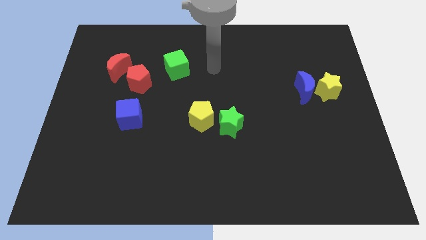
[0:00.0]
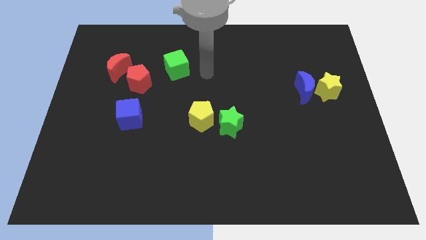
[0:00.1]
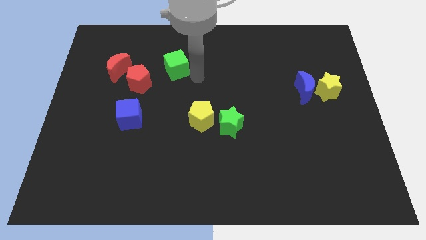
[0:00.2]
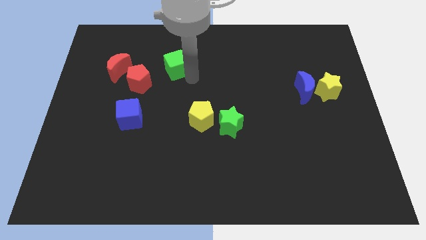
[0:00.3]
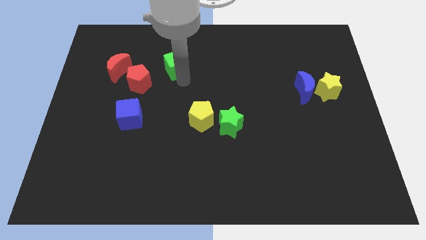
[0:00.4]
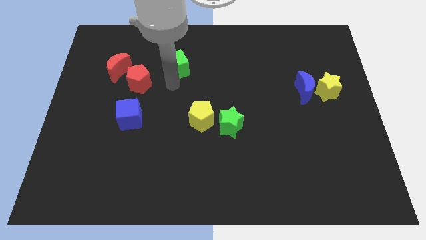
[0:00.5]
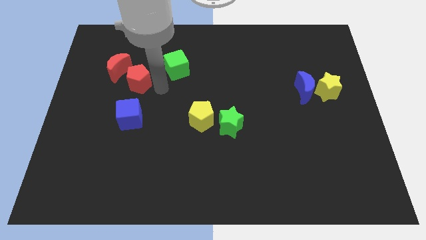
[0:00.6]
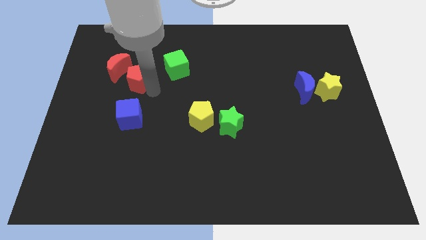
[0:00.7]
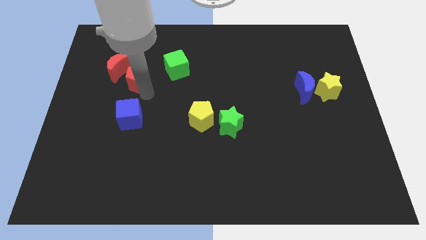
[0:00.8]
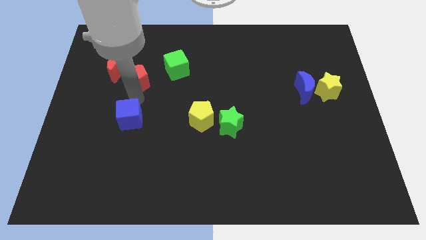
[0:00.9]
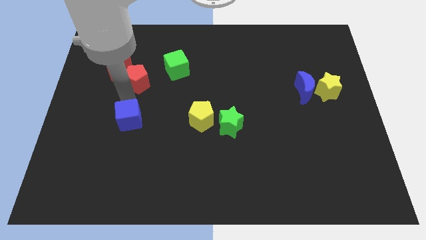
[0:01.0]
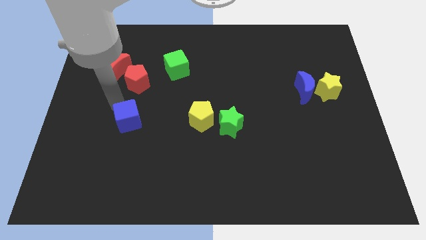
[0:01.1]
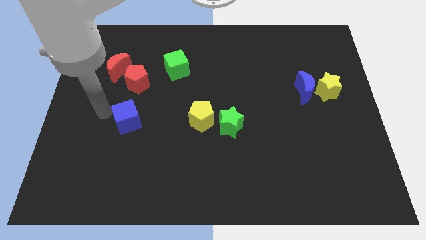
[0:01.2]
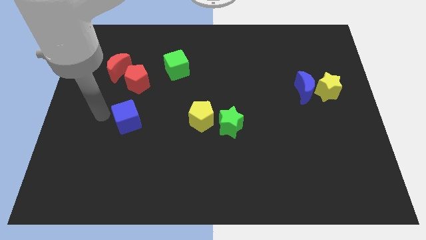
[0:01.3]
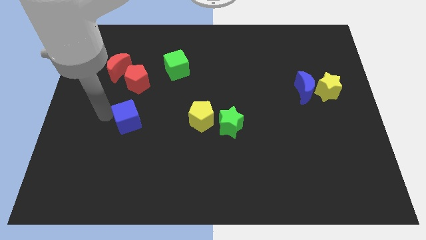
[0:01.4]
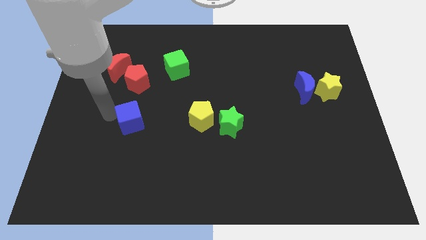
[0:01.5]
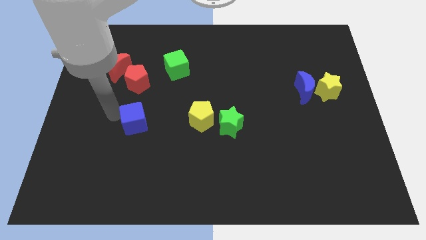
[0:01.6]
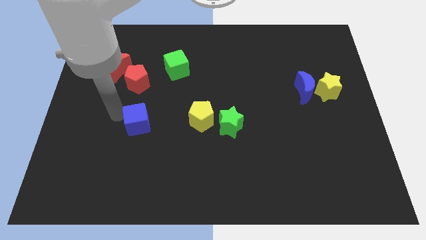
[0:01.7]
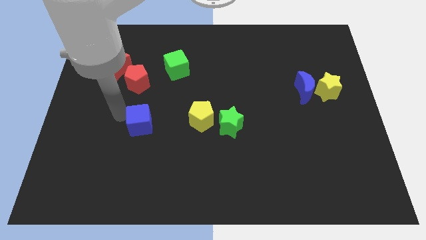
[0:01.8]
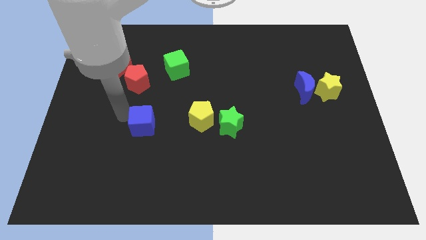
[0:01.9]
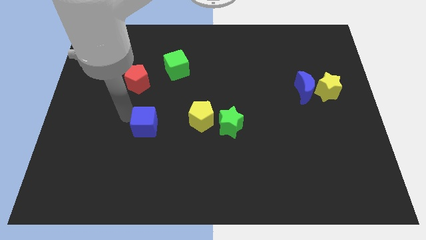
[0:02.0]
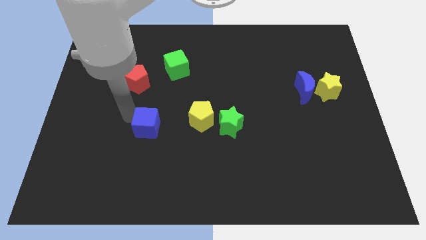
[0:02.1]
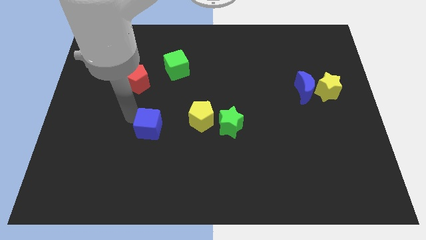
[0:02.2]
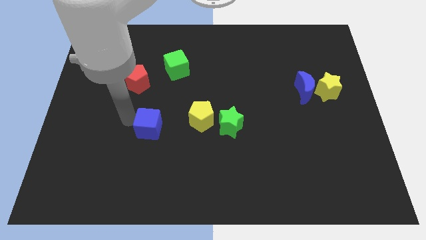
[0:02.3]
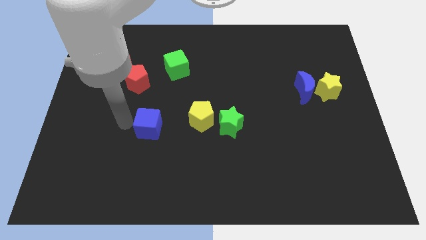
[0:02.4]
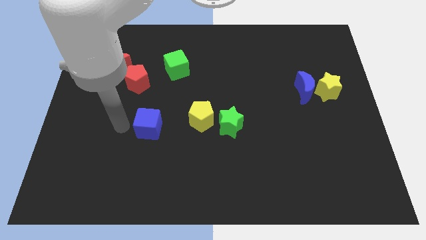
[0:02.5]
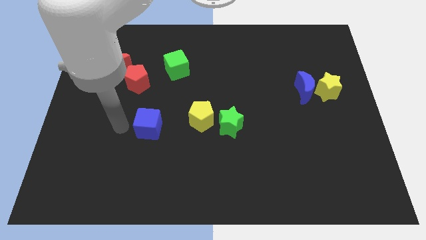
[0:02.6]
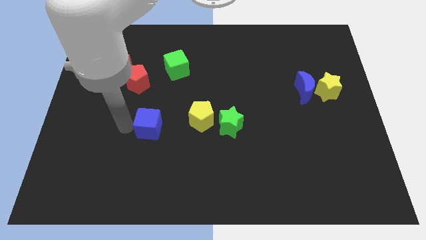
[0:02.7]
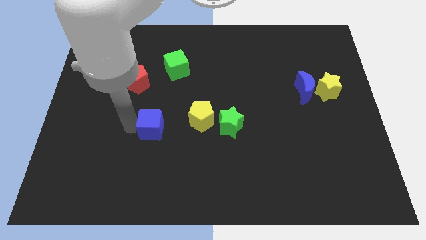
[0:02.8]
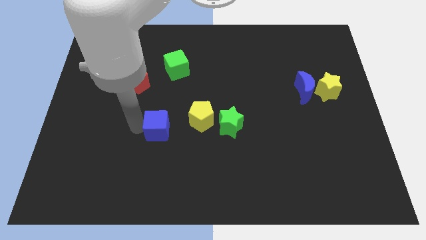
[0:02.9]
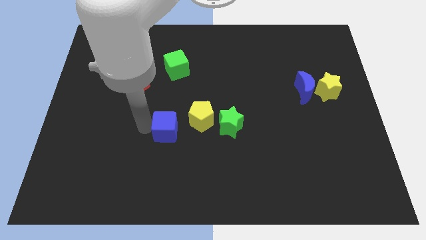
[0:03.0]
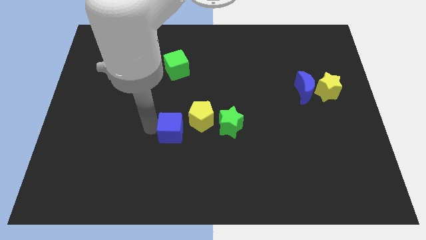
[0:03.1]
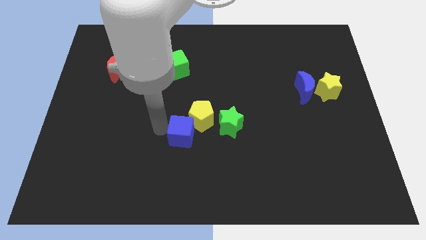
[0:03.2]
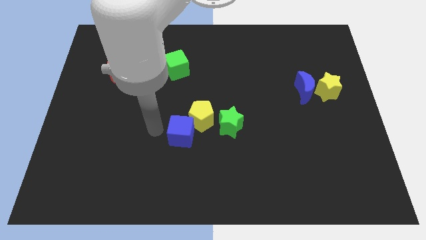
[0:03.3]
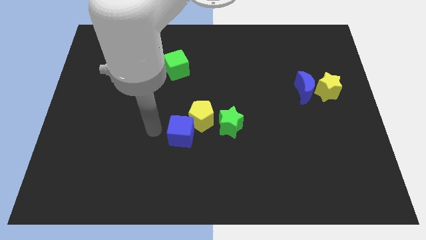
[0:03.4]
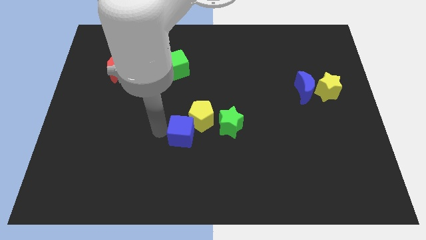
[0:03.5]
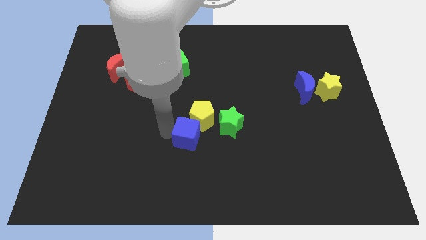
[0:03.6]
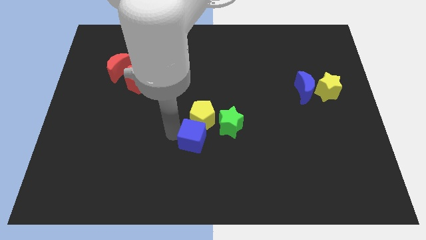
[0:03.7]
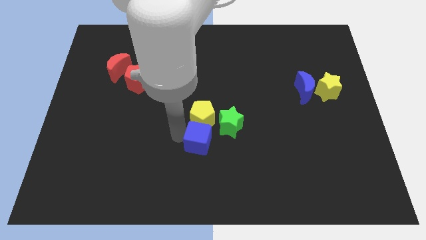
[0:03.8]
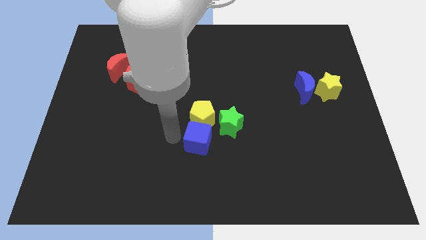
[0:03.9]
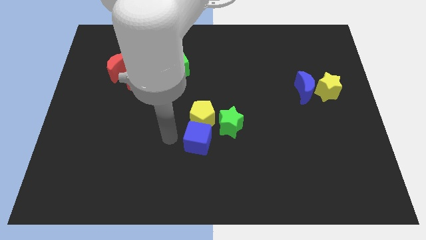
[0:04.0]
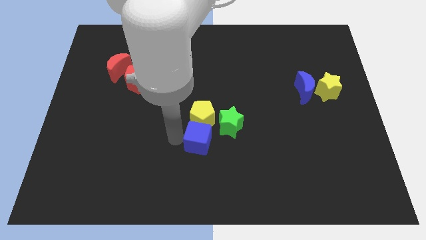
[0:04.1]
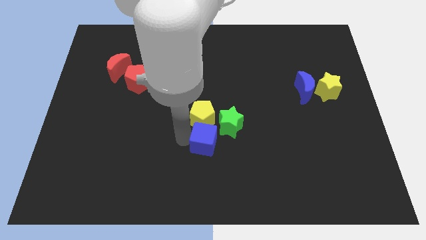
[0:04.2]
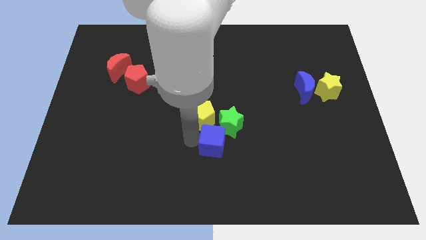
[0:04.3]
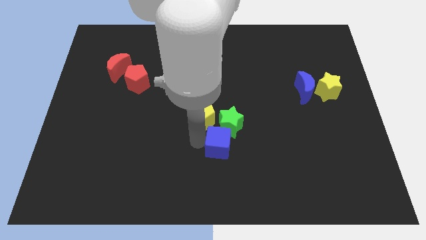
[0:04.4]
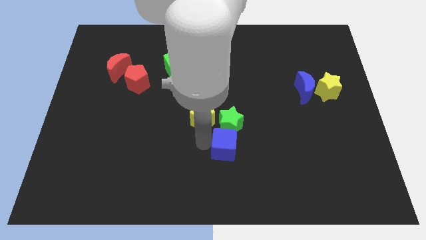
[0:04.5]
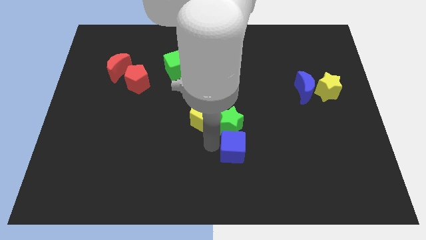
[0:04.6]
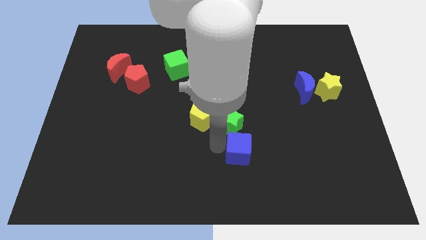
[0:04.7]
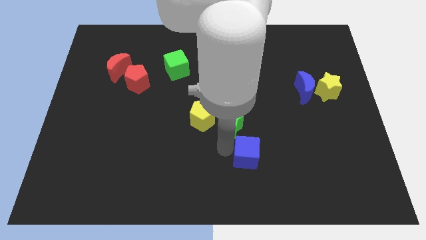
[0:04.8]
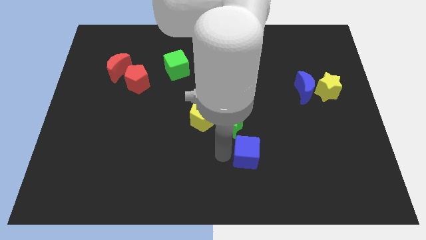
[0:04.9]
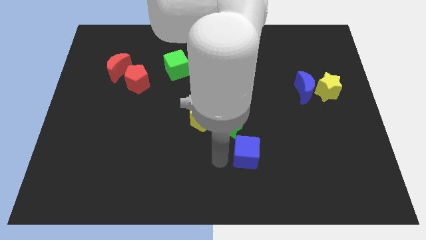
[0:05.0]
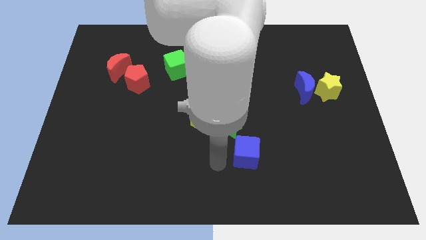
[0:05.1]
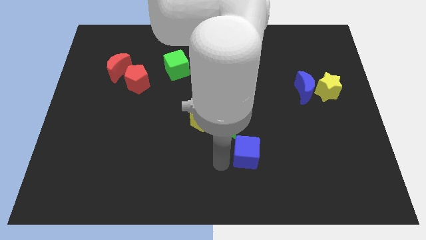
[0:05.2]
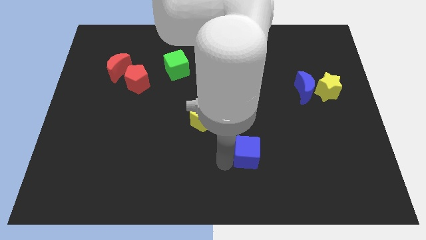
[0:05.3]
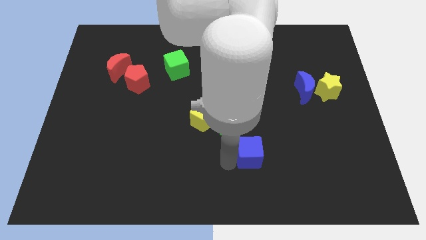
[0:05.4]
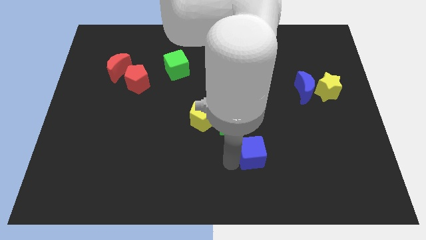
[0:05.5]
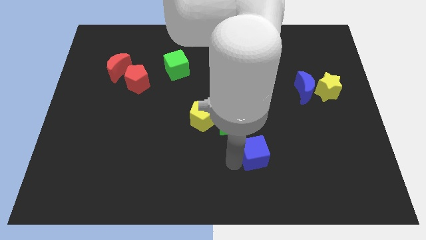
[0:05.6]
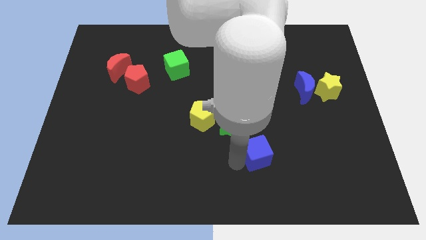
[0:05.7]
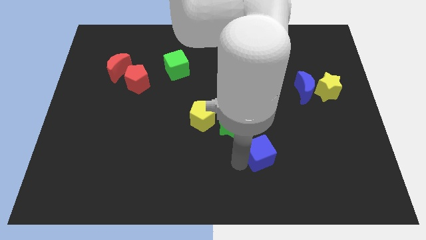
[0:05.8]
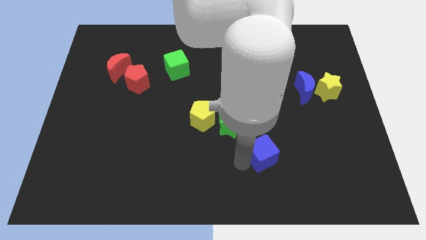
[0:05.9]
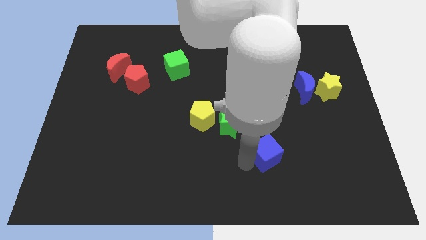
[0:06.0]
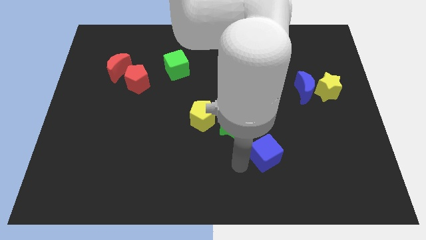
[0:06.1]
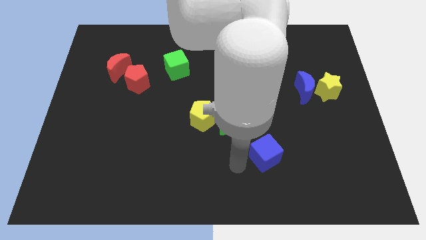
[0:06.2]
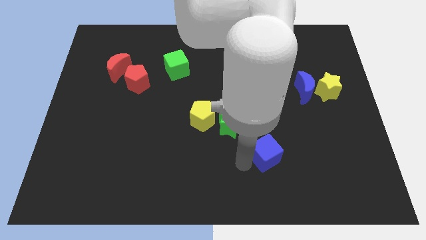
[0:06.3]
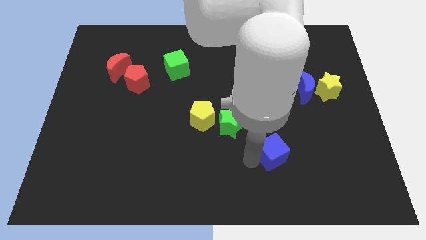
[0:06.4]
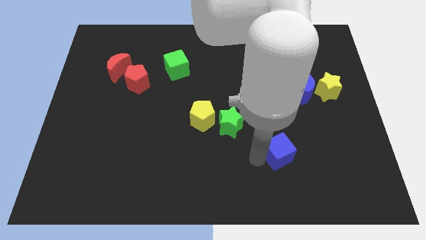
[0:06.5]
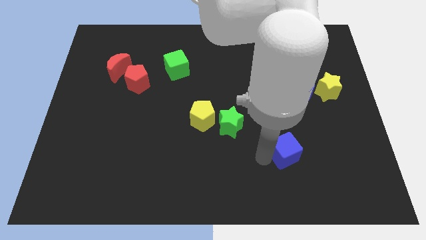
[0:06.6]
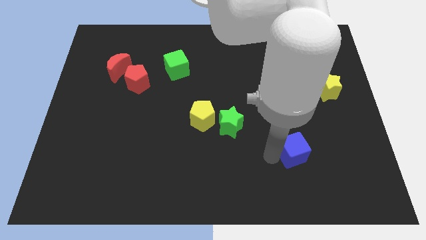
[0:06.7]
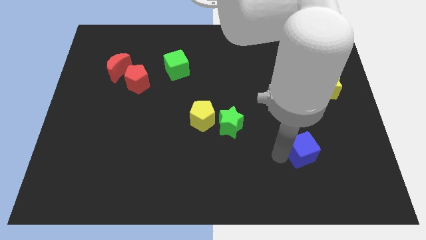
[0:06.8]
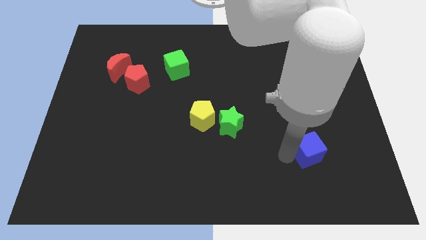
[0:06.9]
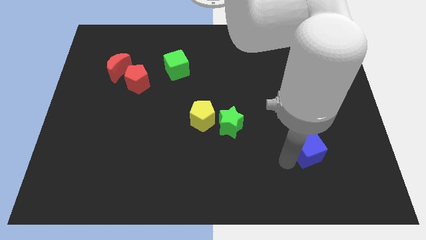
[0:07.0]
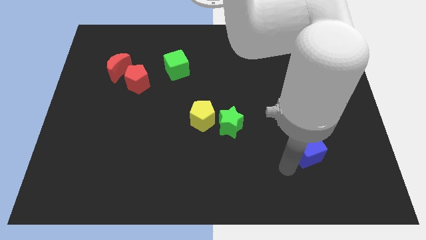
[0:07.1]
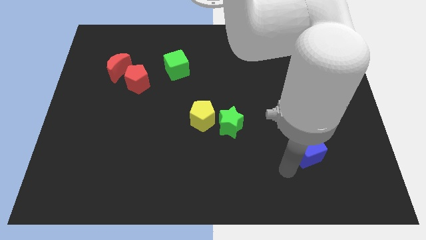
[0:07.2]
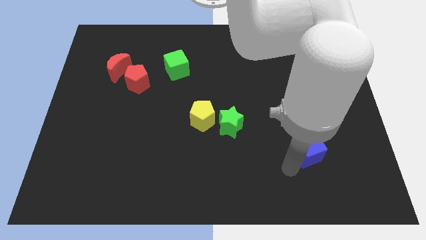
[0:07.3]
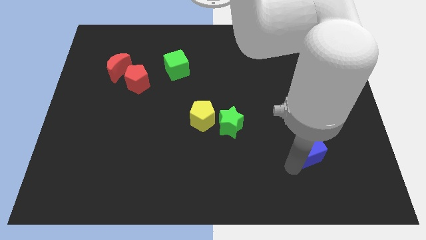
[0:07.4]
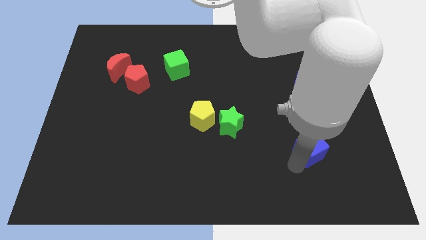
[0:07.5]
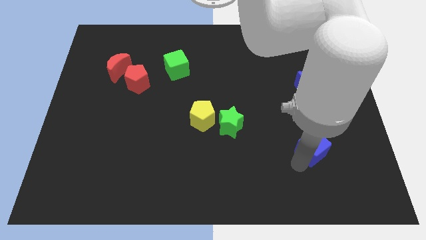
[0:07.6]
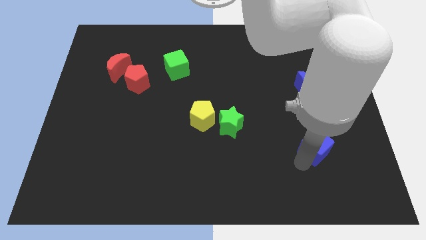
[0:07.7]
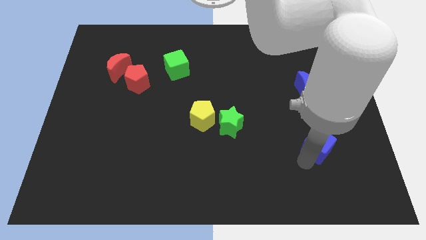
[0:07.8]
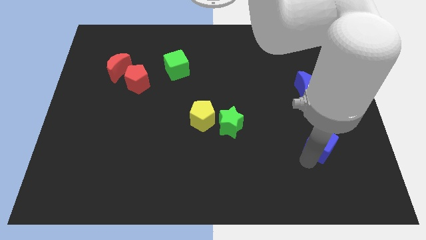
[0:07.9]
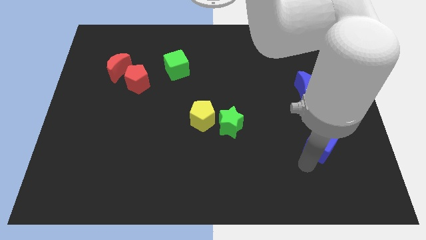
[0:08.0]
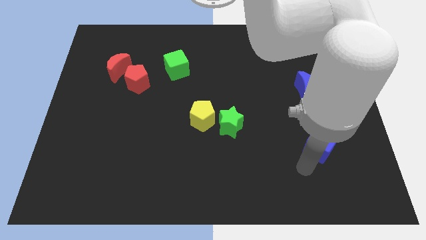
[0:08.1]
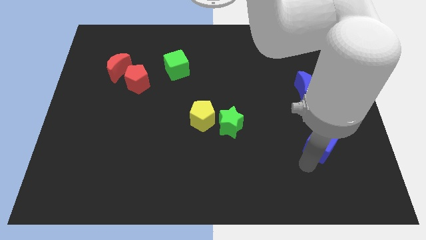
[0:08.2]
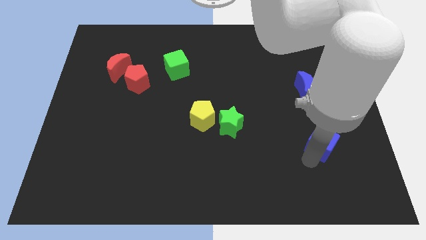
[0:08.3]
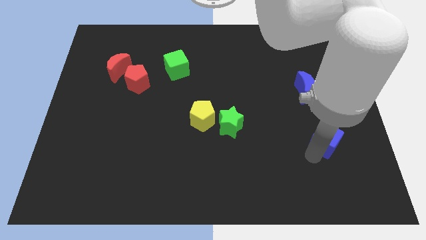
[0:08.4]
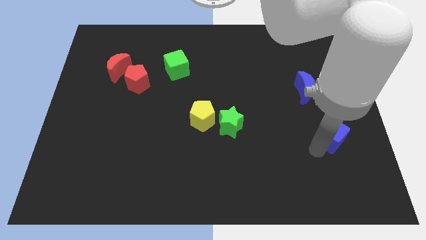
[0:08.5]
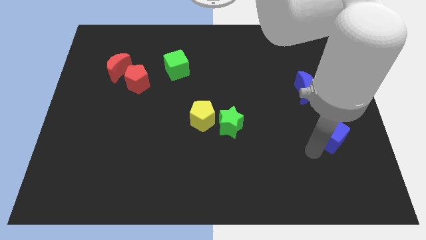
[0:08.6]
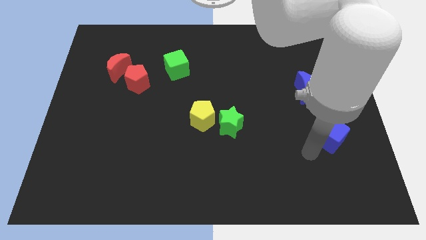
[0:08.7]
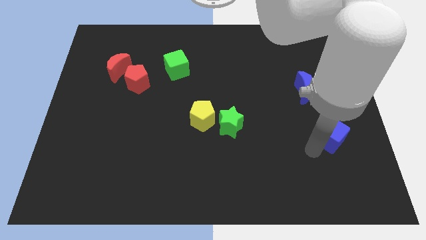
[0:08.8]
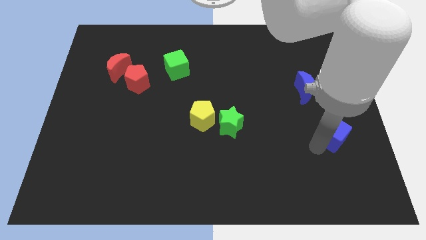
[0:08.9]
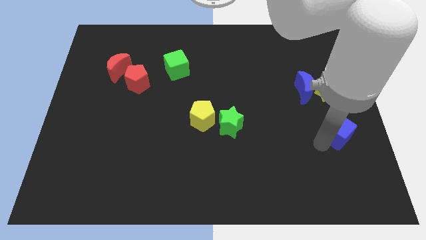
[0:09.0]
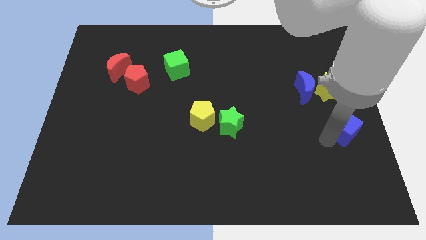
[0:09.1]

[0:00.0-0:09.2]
push the blue cube to the center right
